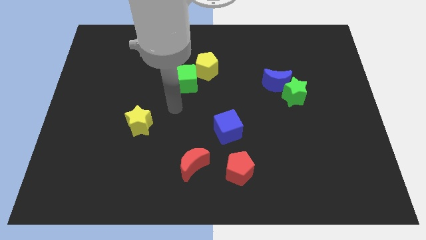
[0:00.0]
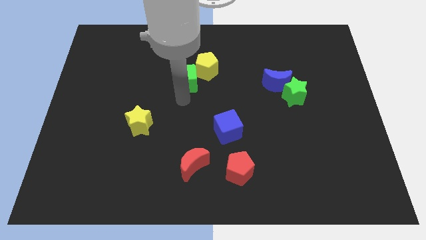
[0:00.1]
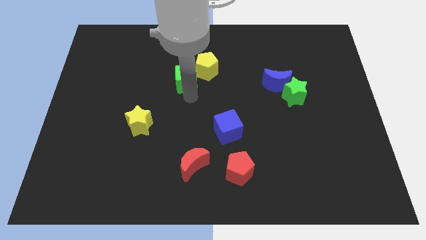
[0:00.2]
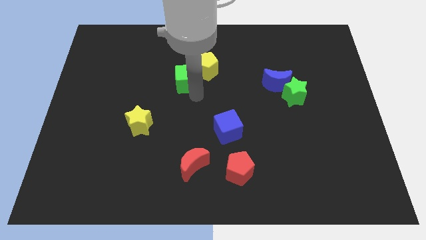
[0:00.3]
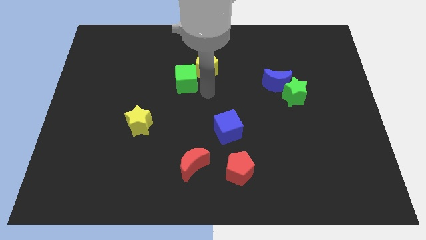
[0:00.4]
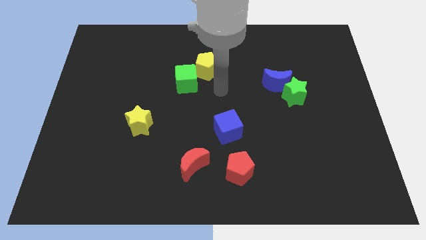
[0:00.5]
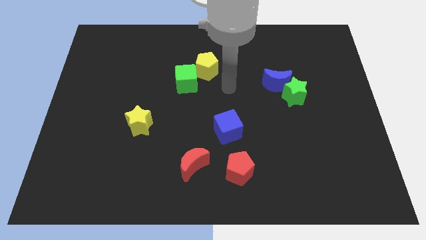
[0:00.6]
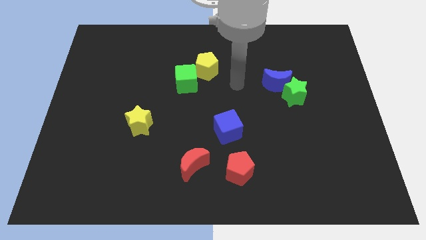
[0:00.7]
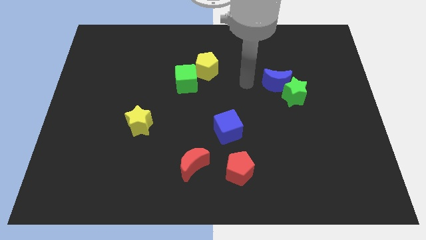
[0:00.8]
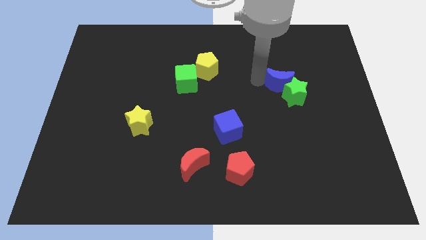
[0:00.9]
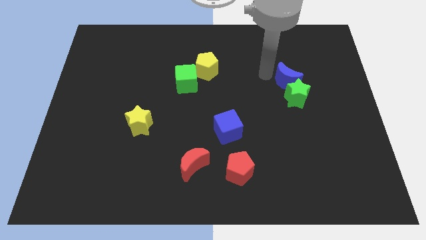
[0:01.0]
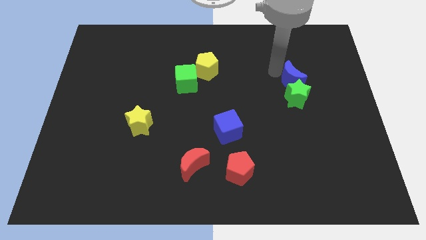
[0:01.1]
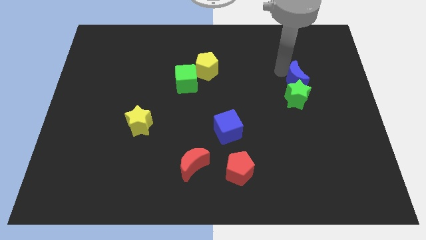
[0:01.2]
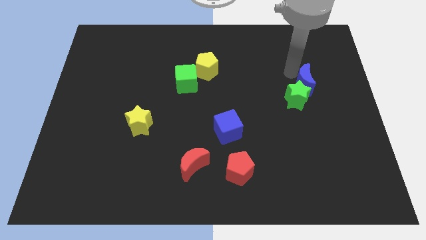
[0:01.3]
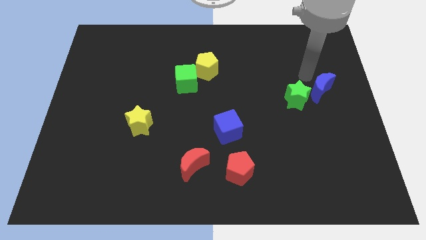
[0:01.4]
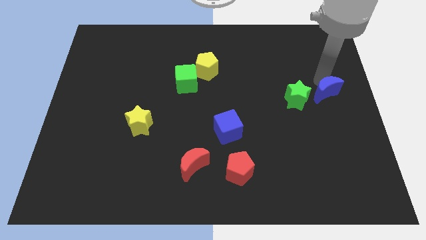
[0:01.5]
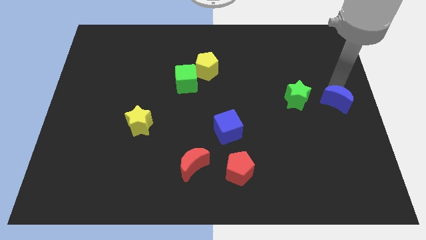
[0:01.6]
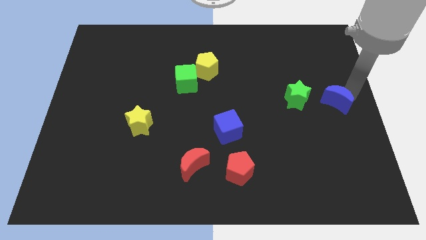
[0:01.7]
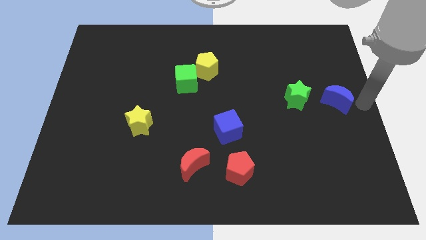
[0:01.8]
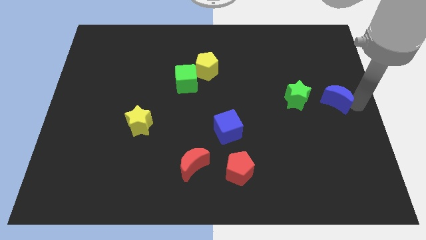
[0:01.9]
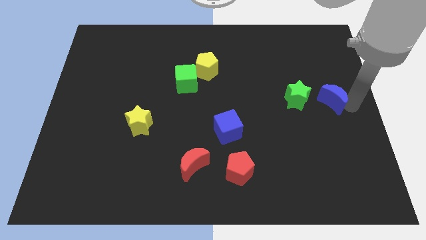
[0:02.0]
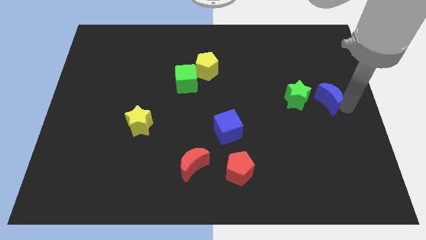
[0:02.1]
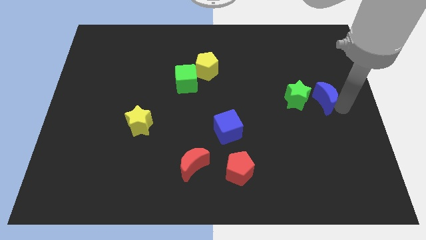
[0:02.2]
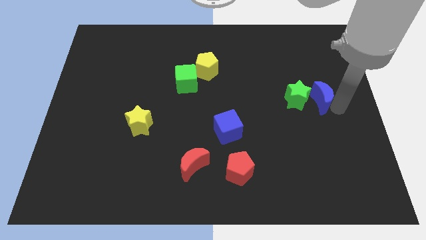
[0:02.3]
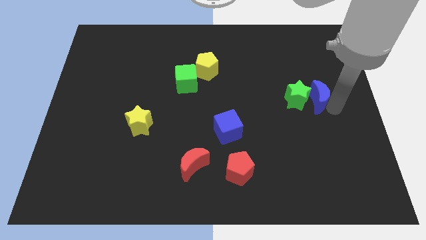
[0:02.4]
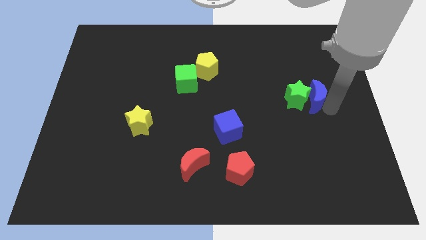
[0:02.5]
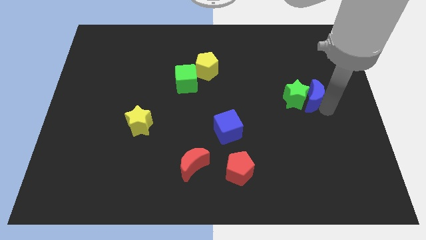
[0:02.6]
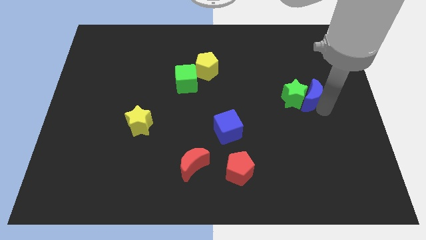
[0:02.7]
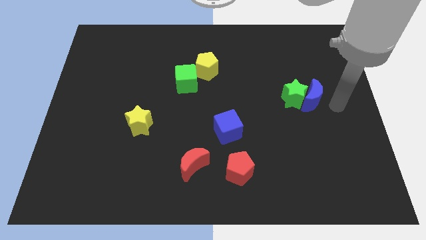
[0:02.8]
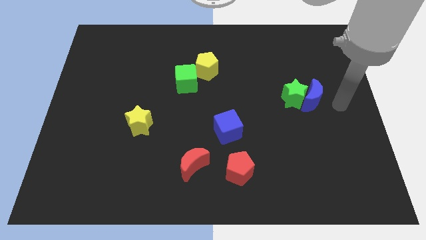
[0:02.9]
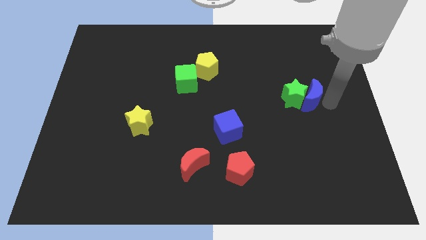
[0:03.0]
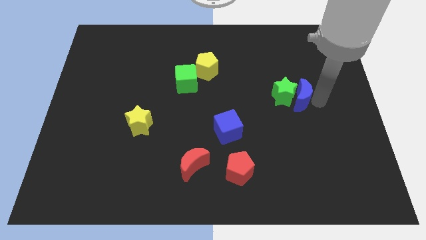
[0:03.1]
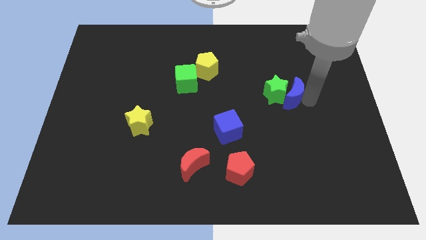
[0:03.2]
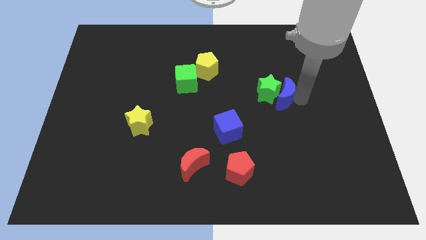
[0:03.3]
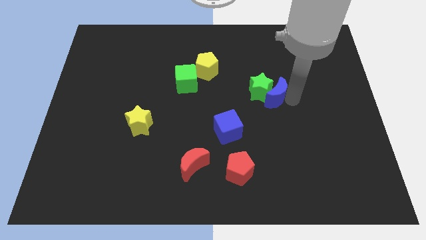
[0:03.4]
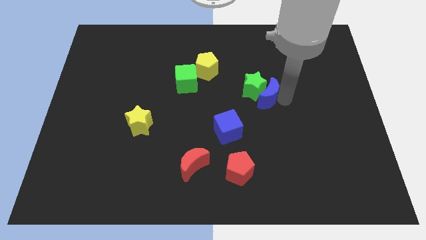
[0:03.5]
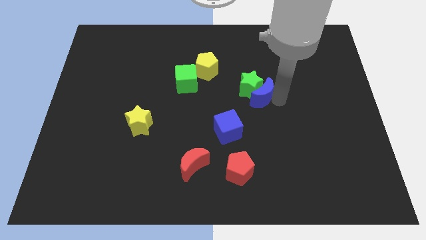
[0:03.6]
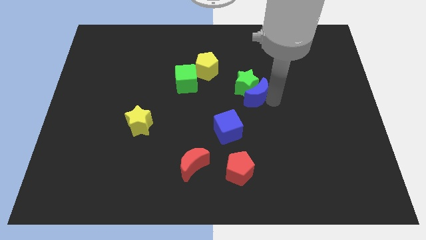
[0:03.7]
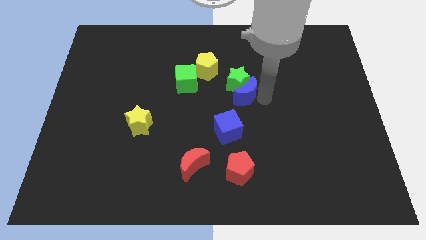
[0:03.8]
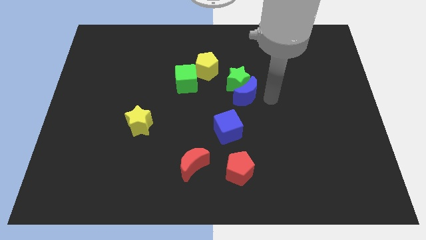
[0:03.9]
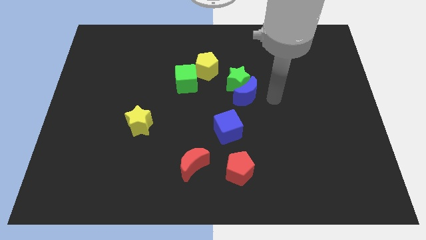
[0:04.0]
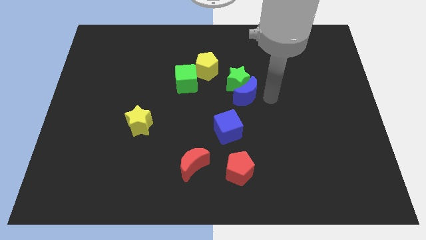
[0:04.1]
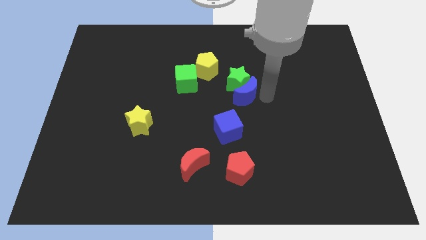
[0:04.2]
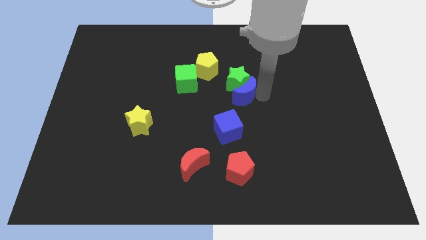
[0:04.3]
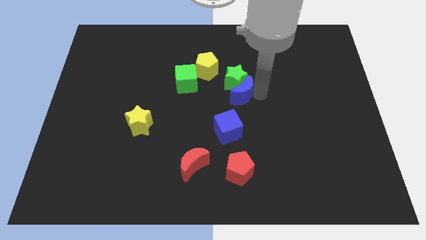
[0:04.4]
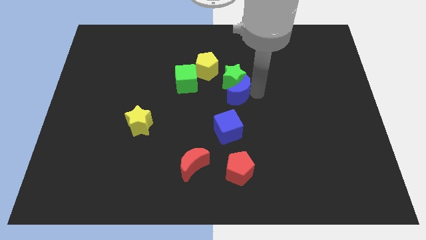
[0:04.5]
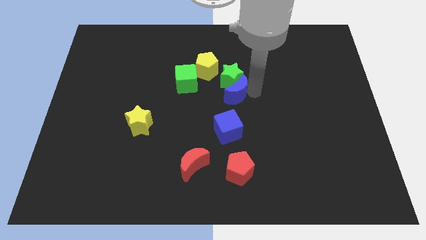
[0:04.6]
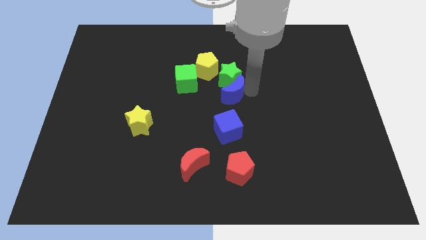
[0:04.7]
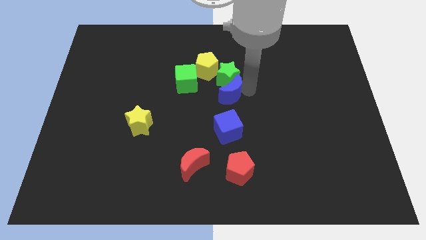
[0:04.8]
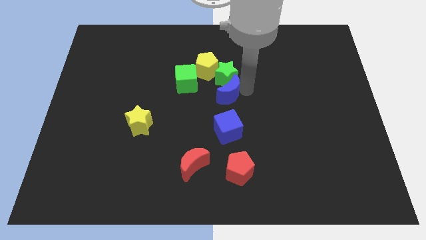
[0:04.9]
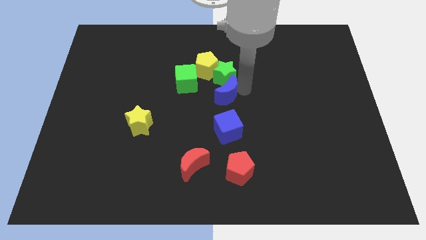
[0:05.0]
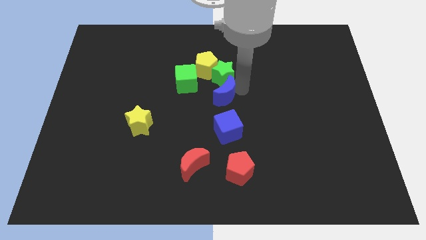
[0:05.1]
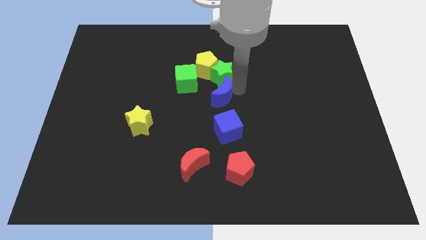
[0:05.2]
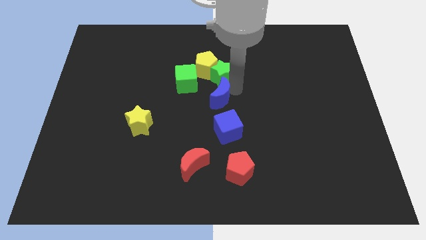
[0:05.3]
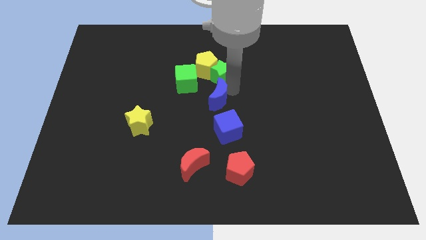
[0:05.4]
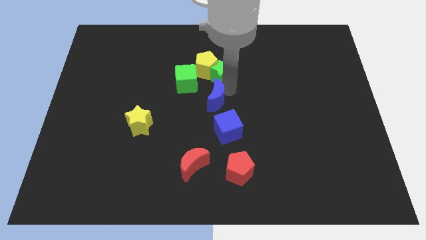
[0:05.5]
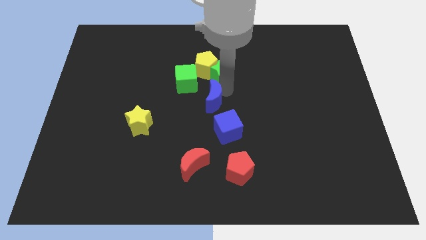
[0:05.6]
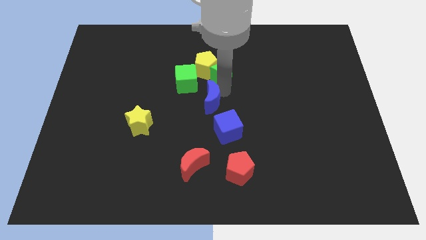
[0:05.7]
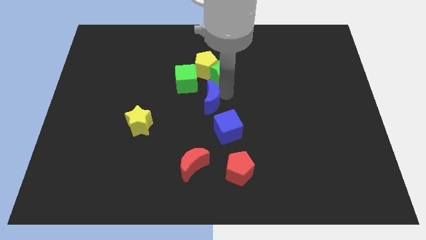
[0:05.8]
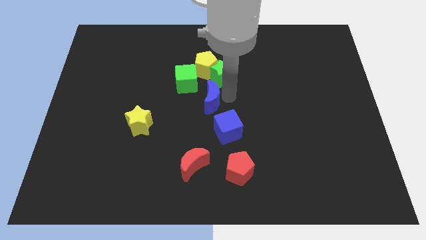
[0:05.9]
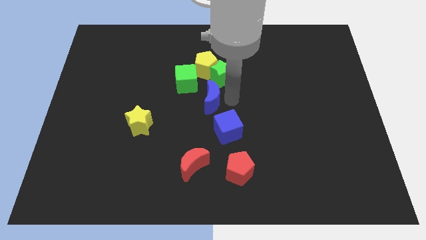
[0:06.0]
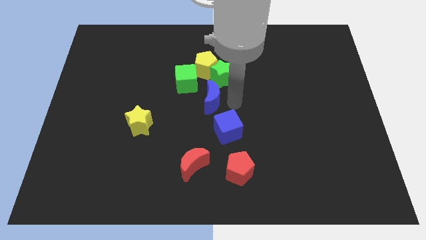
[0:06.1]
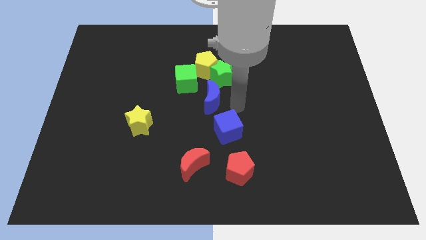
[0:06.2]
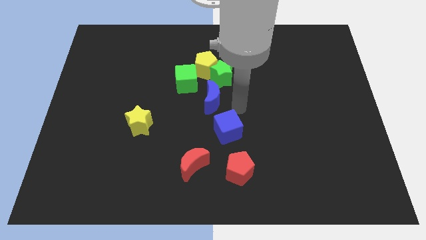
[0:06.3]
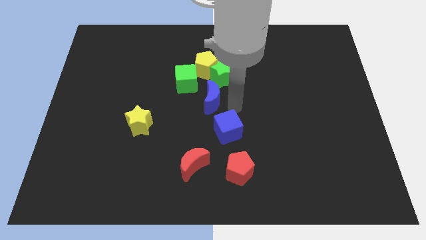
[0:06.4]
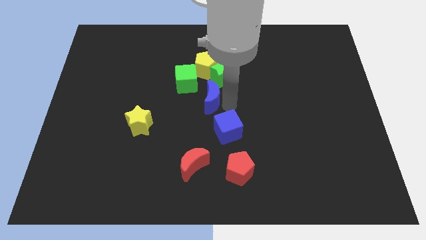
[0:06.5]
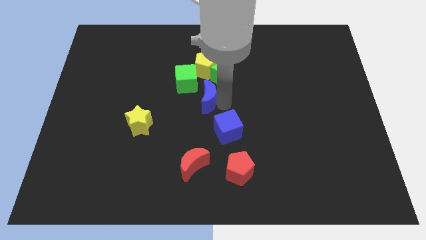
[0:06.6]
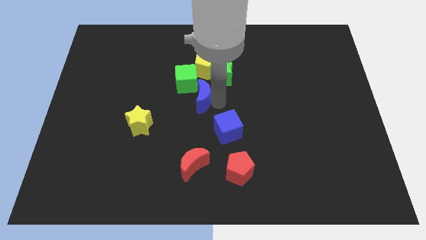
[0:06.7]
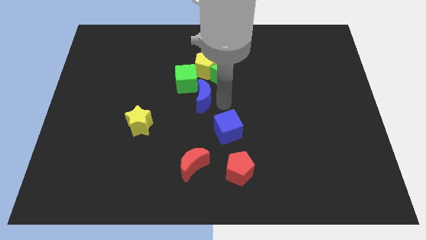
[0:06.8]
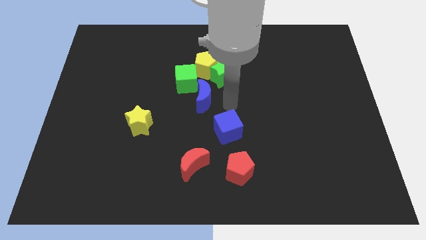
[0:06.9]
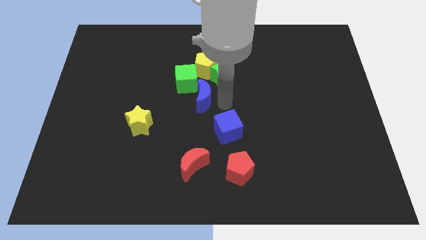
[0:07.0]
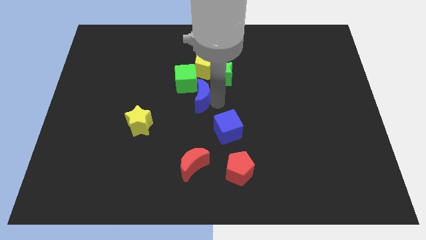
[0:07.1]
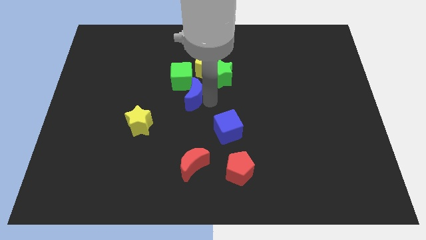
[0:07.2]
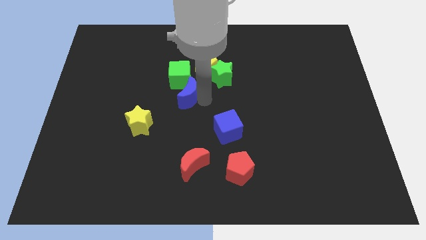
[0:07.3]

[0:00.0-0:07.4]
slide the blue moon to the left

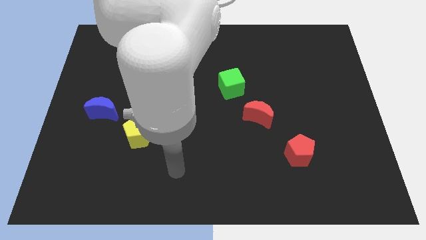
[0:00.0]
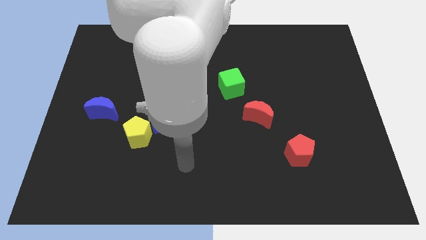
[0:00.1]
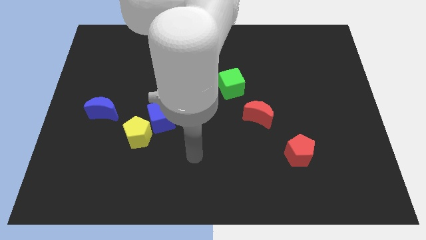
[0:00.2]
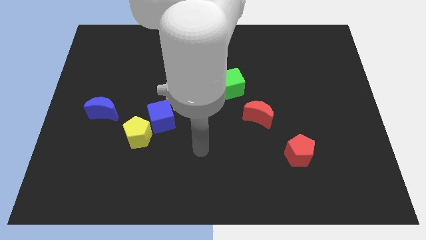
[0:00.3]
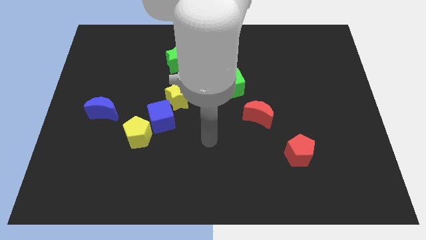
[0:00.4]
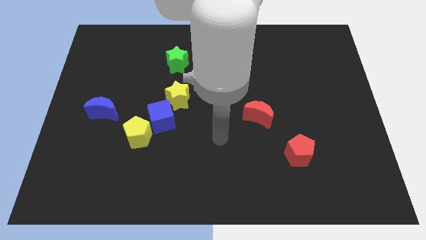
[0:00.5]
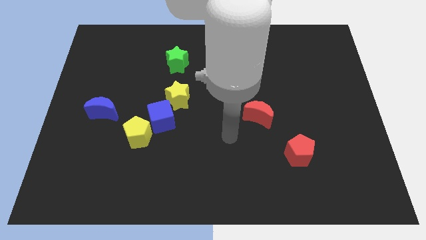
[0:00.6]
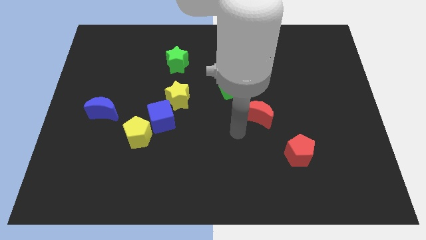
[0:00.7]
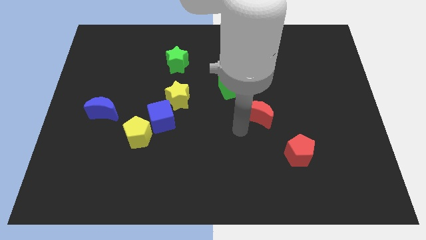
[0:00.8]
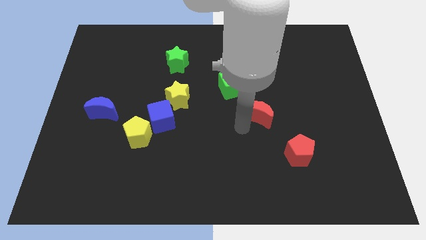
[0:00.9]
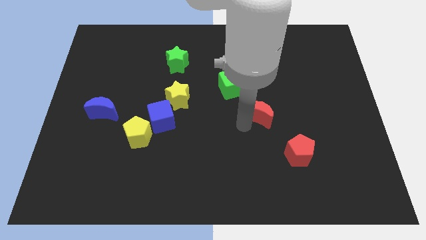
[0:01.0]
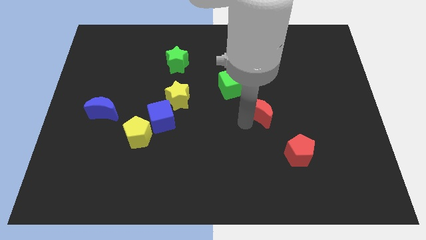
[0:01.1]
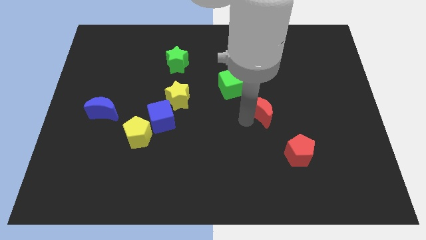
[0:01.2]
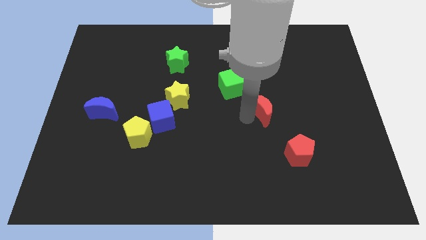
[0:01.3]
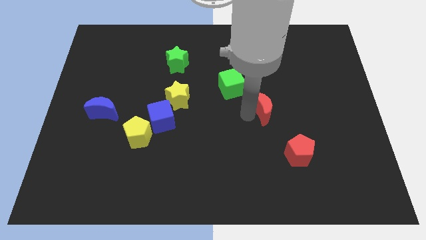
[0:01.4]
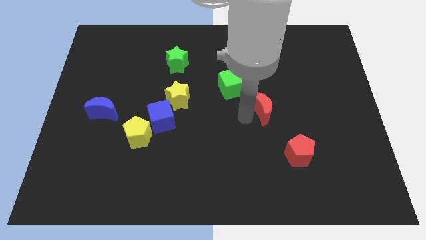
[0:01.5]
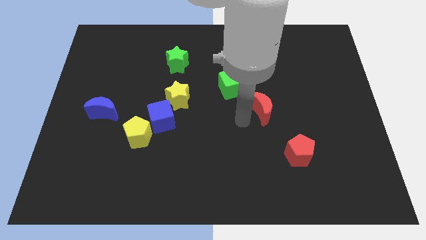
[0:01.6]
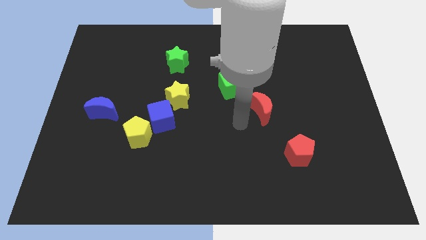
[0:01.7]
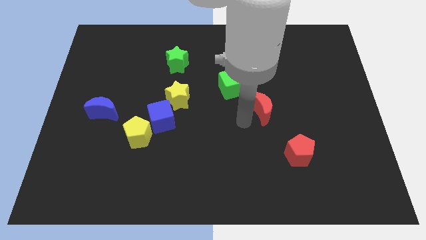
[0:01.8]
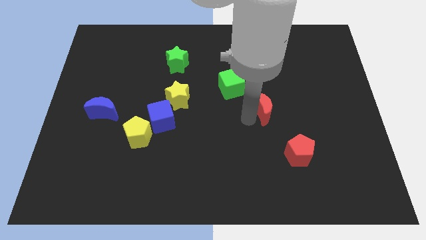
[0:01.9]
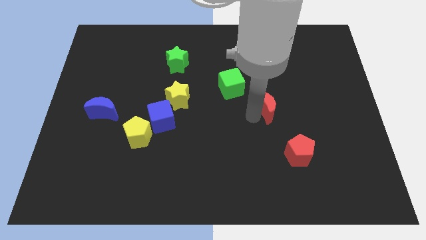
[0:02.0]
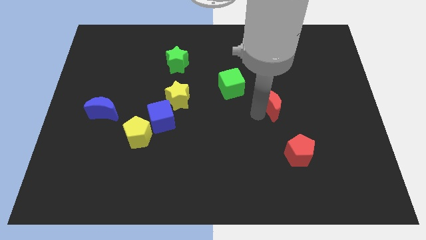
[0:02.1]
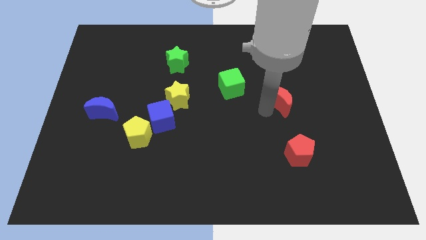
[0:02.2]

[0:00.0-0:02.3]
slide the red moon upwards and right diagonally somewhat
